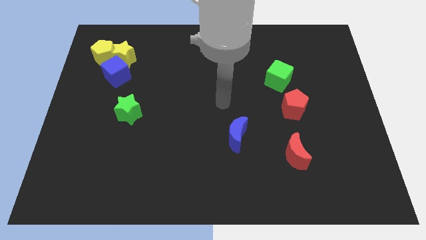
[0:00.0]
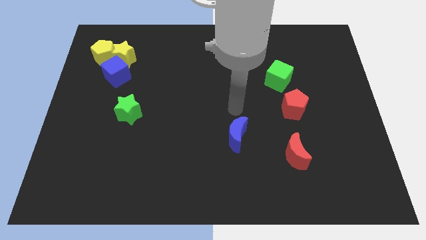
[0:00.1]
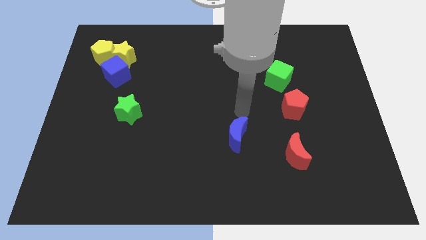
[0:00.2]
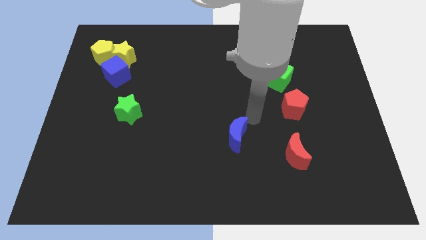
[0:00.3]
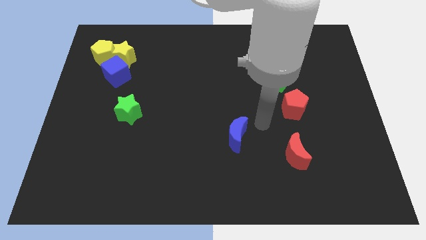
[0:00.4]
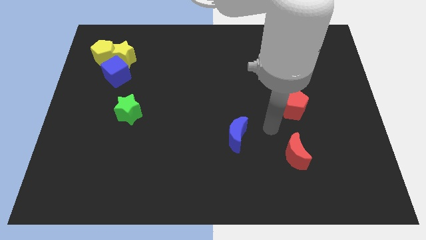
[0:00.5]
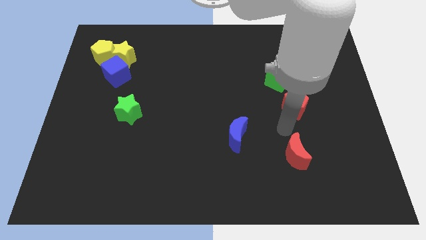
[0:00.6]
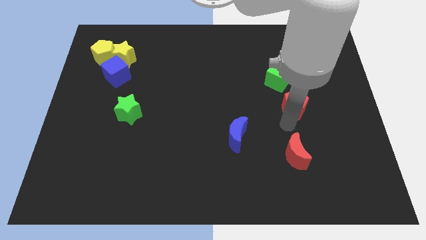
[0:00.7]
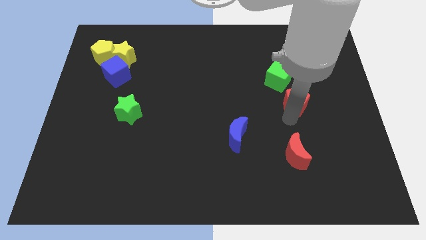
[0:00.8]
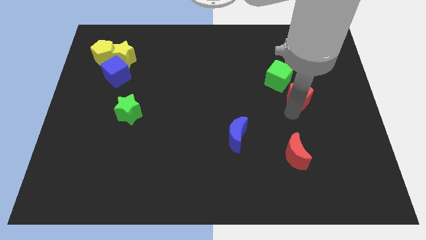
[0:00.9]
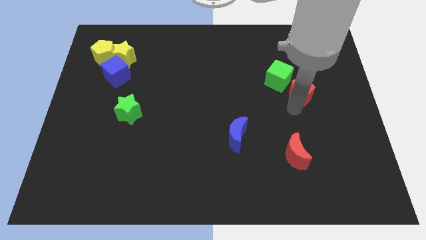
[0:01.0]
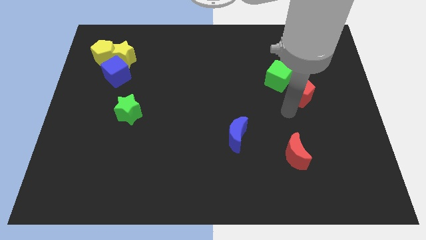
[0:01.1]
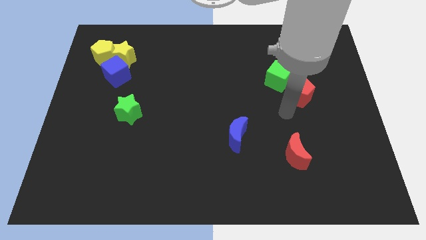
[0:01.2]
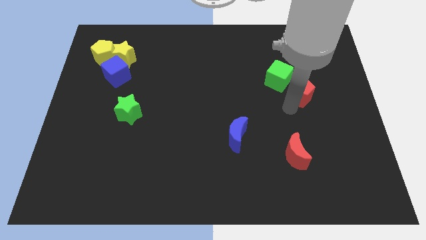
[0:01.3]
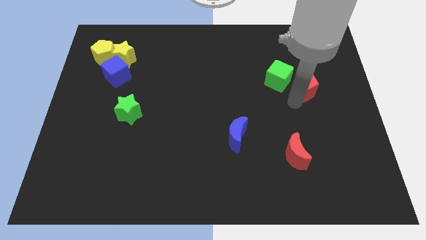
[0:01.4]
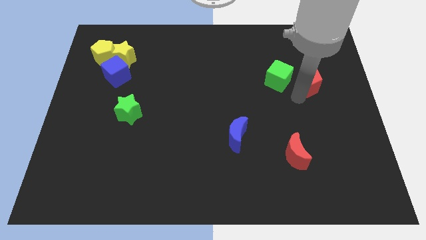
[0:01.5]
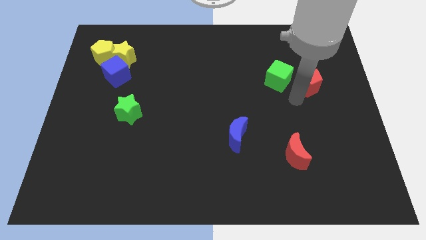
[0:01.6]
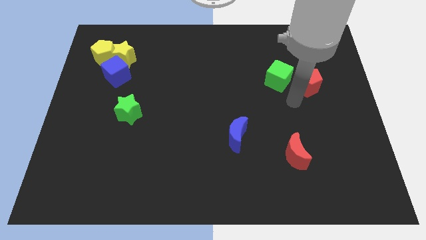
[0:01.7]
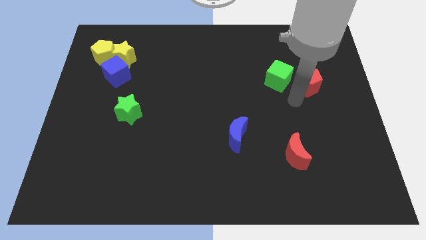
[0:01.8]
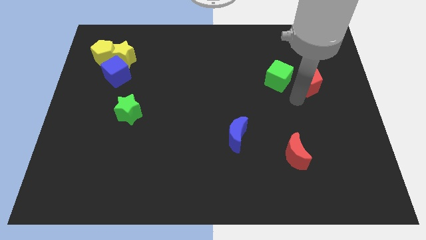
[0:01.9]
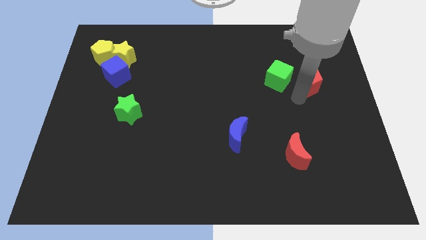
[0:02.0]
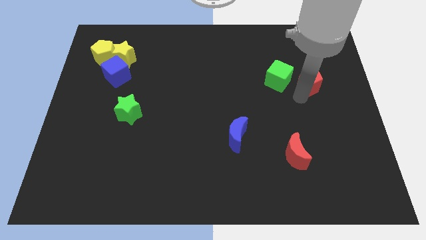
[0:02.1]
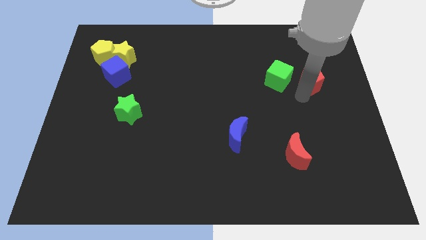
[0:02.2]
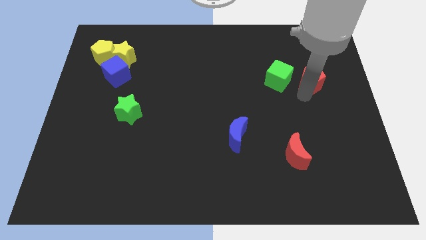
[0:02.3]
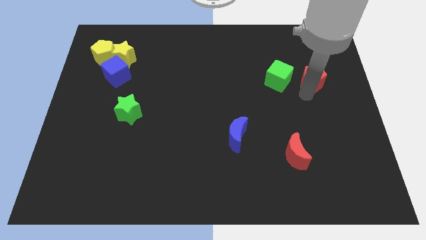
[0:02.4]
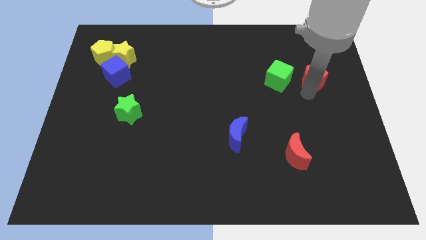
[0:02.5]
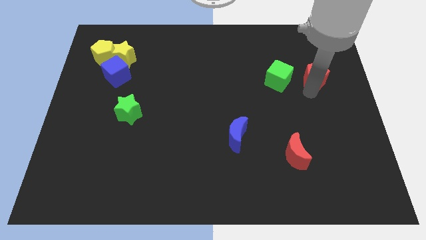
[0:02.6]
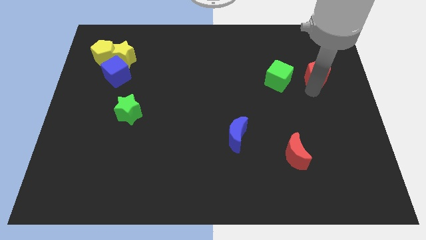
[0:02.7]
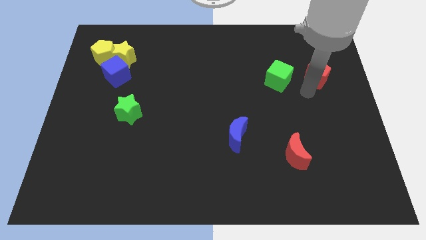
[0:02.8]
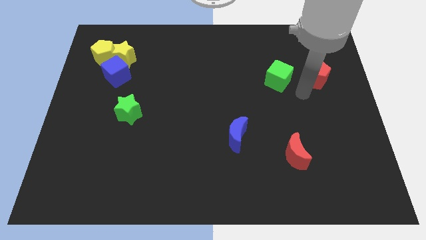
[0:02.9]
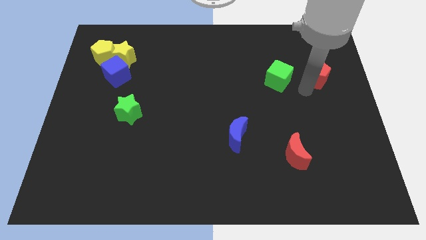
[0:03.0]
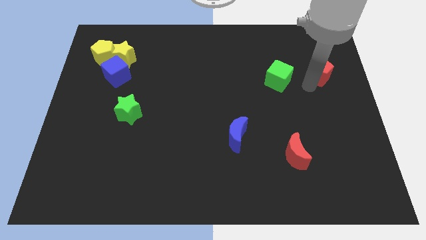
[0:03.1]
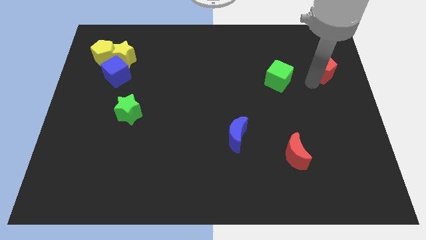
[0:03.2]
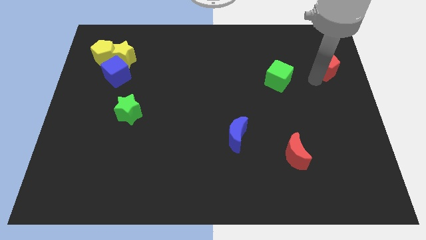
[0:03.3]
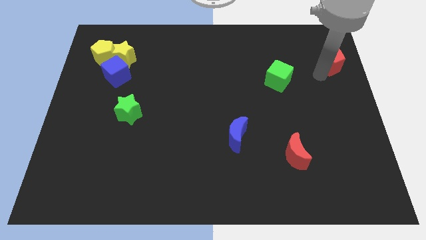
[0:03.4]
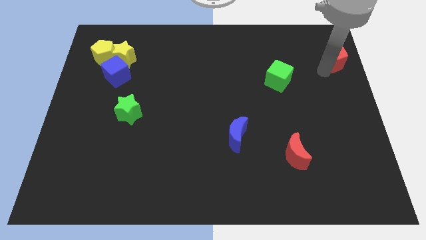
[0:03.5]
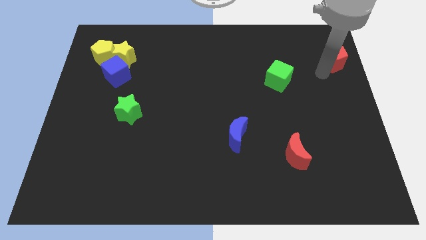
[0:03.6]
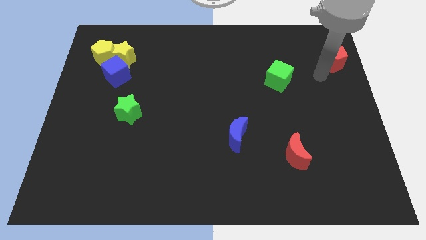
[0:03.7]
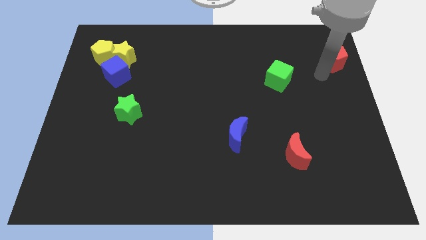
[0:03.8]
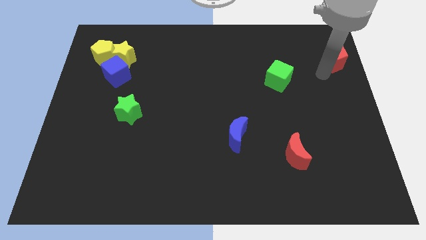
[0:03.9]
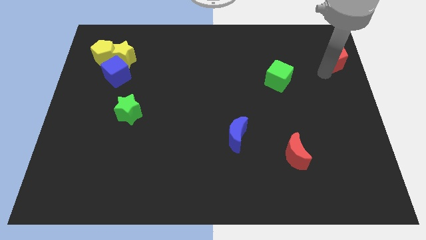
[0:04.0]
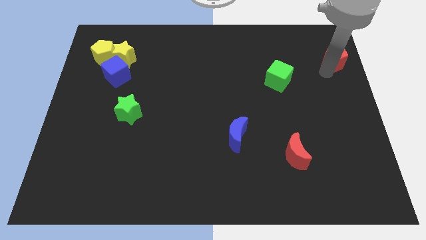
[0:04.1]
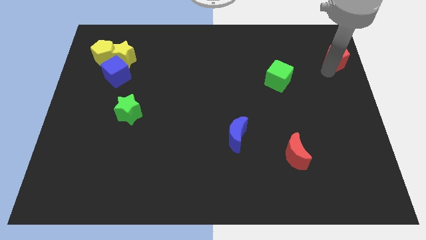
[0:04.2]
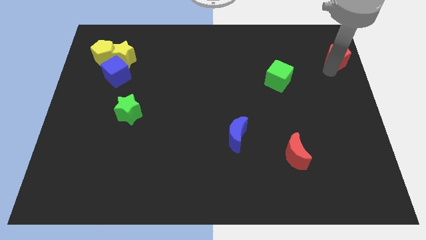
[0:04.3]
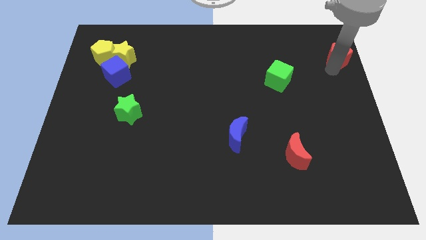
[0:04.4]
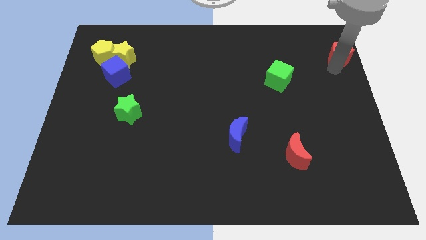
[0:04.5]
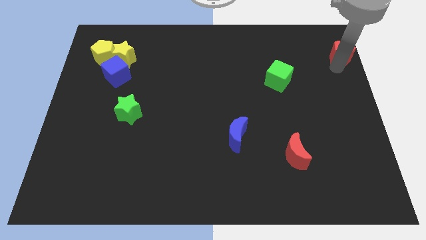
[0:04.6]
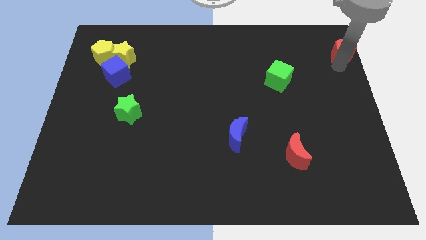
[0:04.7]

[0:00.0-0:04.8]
move the red pentagon to the upper right corner

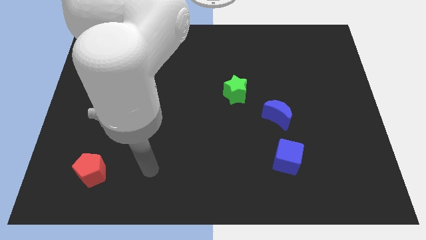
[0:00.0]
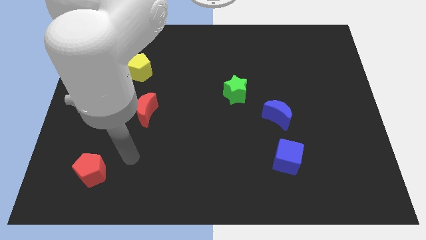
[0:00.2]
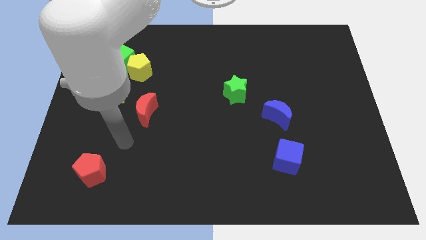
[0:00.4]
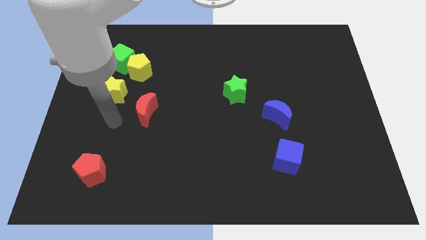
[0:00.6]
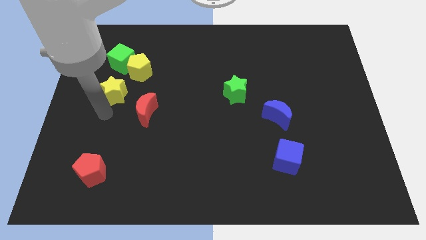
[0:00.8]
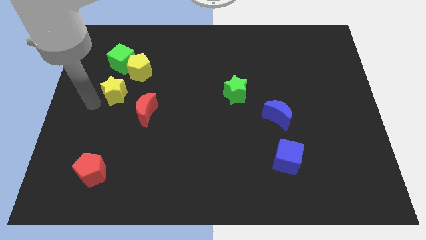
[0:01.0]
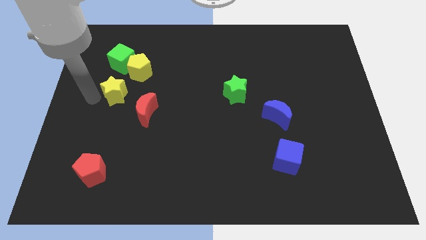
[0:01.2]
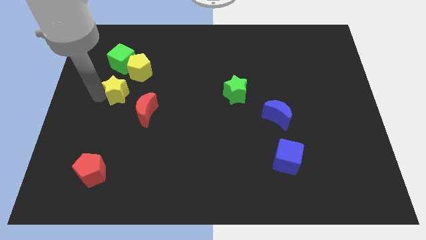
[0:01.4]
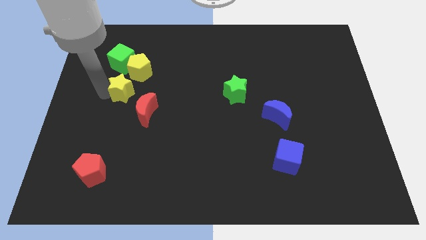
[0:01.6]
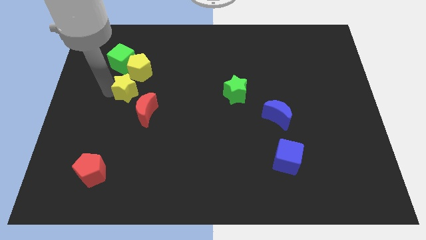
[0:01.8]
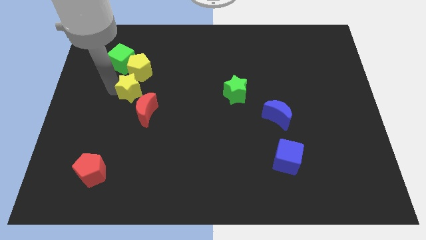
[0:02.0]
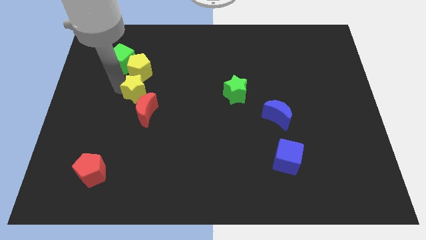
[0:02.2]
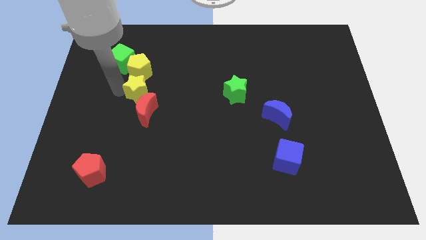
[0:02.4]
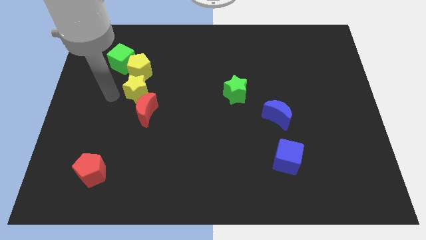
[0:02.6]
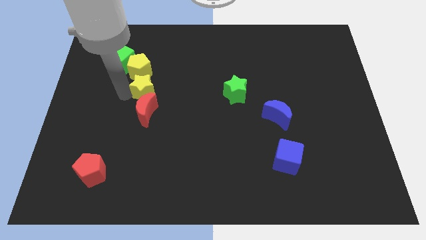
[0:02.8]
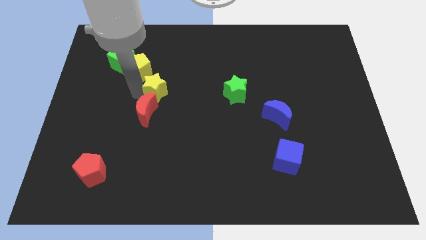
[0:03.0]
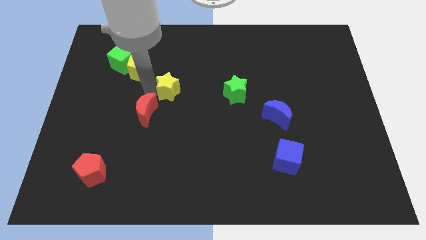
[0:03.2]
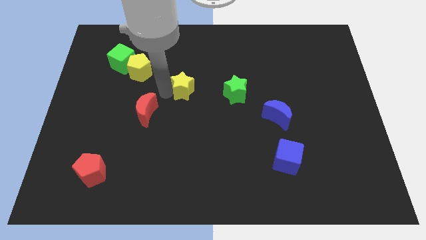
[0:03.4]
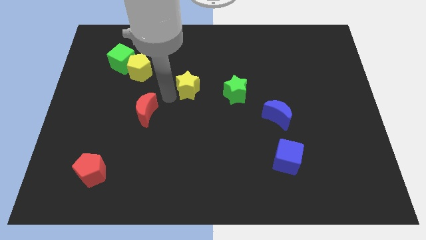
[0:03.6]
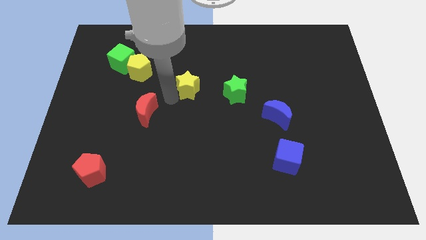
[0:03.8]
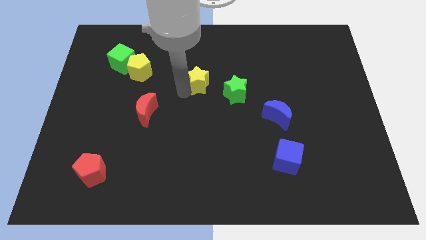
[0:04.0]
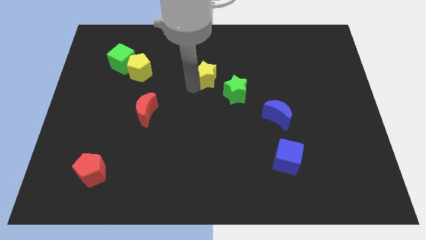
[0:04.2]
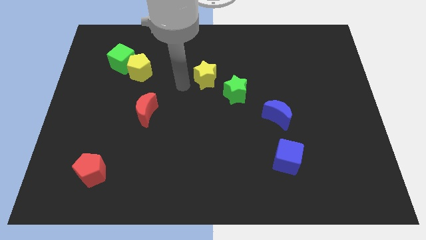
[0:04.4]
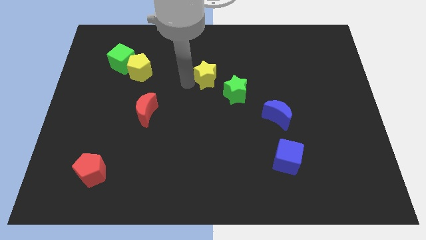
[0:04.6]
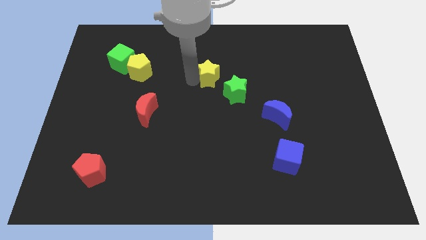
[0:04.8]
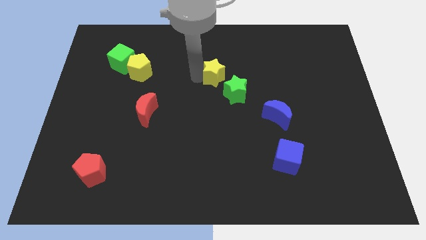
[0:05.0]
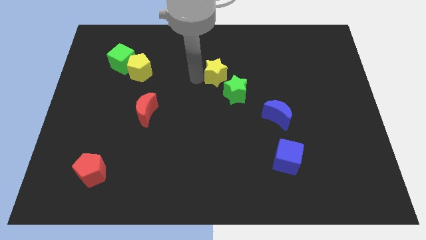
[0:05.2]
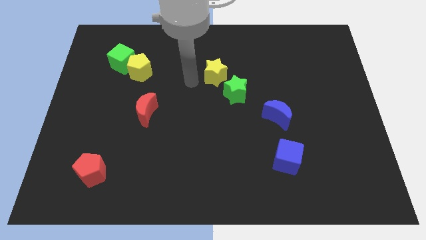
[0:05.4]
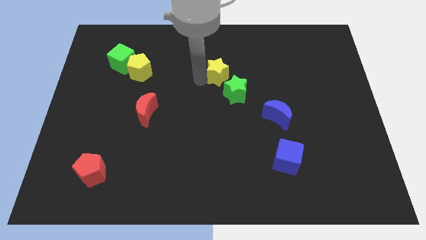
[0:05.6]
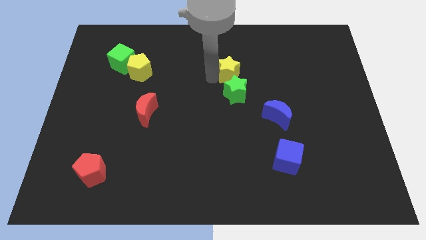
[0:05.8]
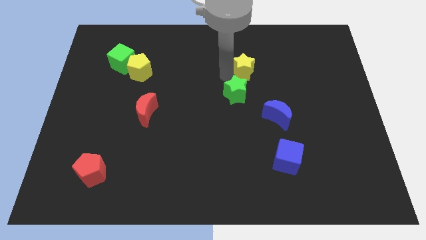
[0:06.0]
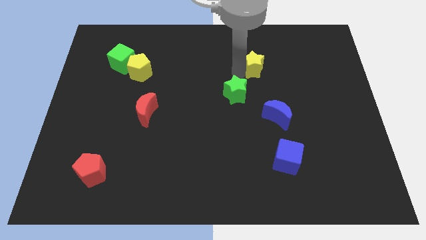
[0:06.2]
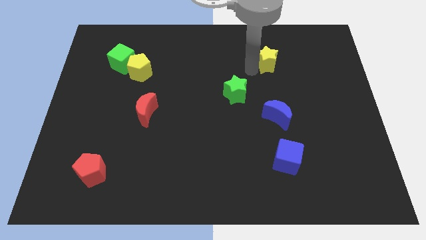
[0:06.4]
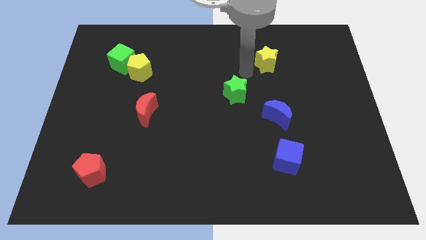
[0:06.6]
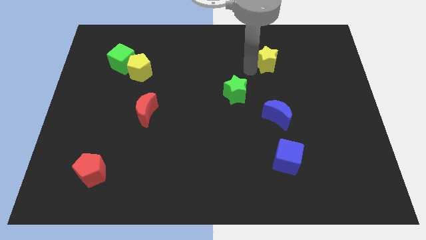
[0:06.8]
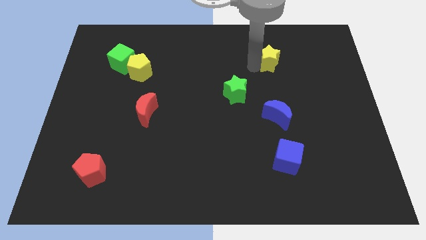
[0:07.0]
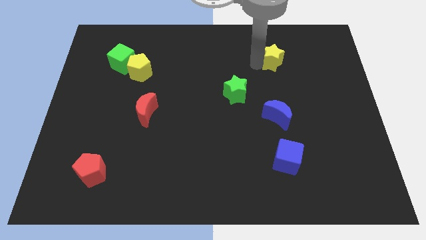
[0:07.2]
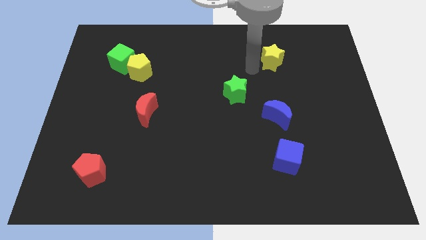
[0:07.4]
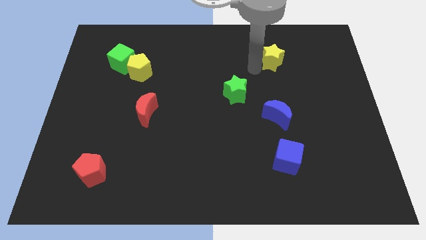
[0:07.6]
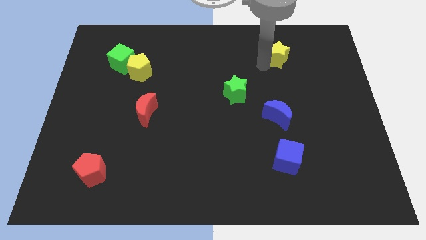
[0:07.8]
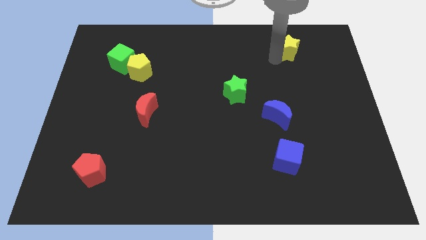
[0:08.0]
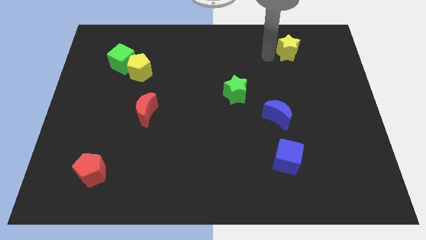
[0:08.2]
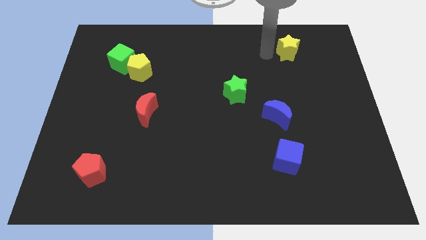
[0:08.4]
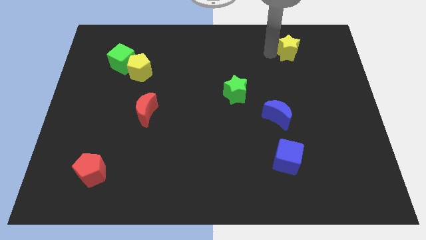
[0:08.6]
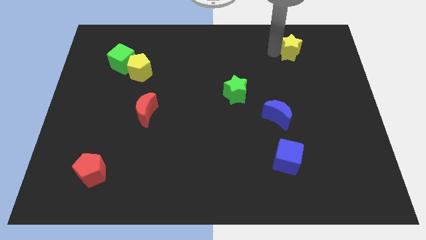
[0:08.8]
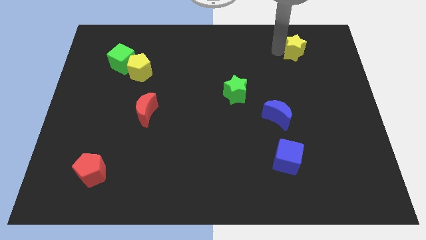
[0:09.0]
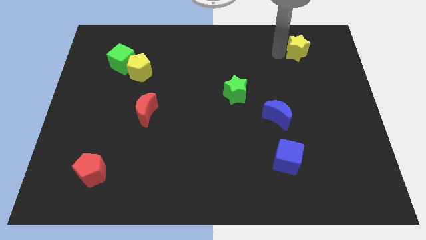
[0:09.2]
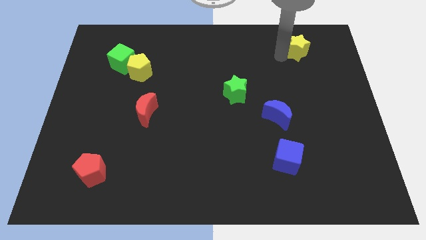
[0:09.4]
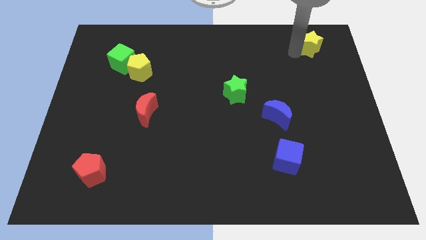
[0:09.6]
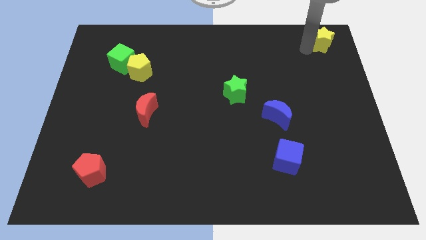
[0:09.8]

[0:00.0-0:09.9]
slide the yellow star to the top right corner
